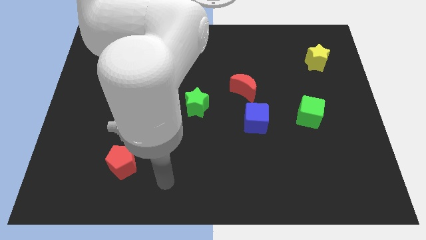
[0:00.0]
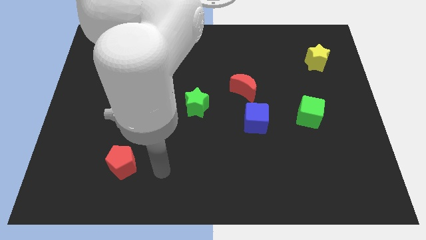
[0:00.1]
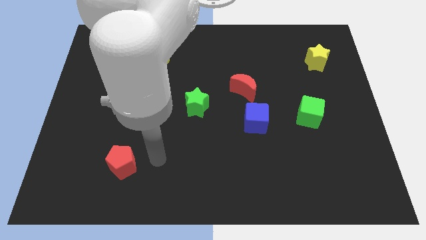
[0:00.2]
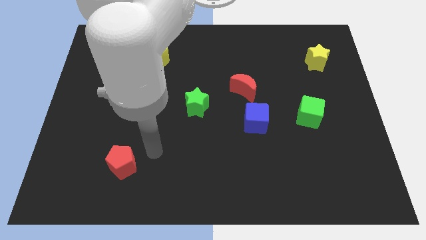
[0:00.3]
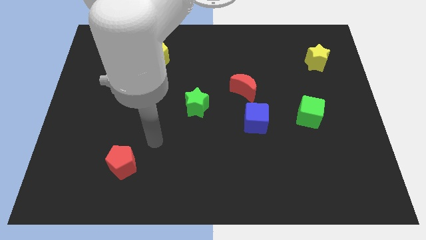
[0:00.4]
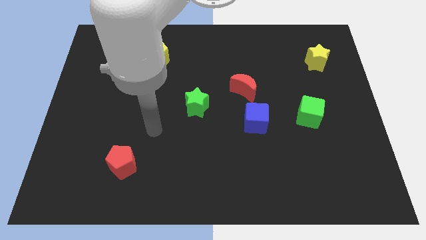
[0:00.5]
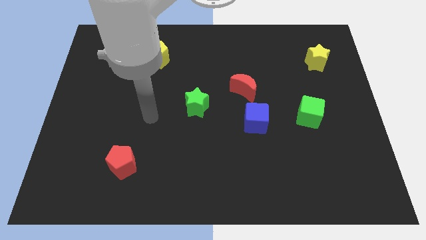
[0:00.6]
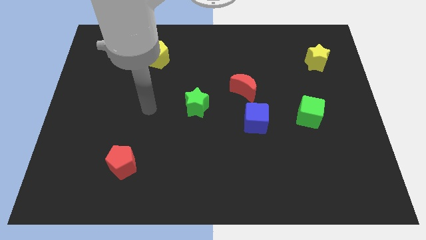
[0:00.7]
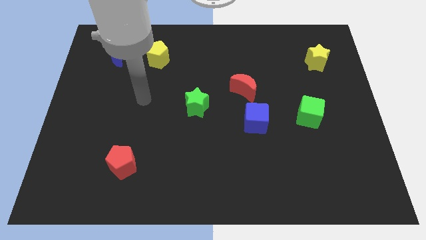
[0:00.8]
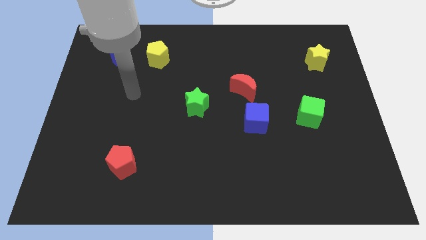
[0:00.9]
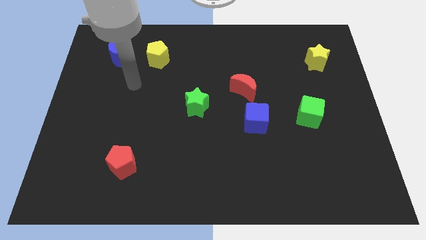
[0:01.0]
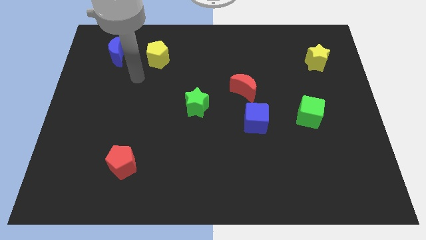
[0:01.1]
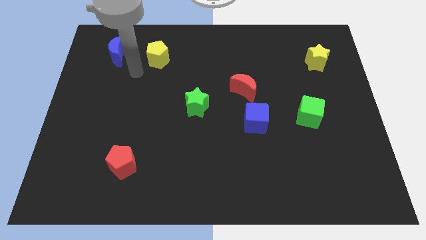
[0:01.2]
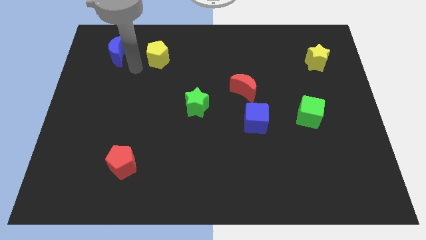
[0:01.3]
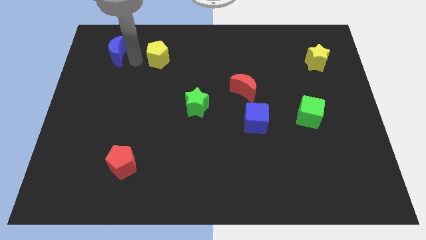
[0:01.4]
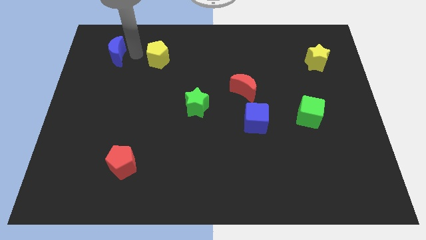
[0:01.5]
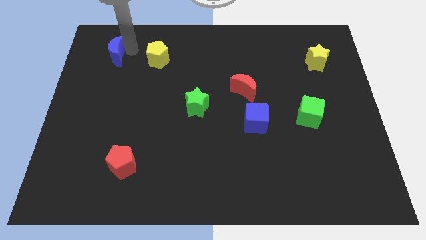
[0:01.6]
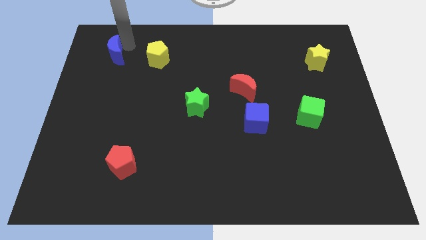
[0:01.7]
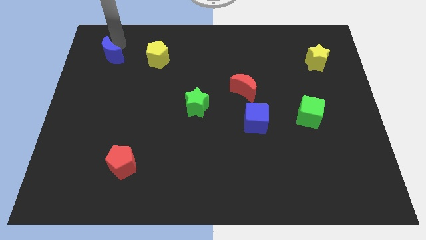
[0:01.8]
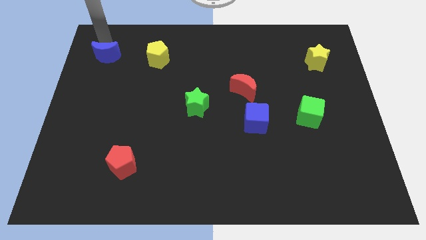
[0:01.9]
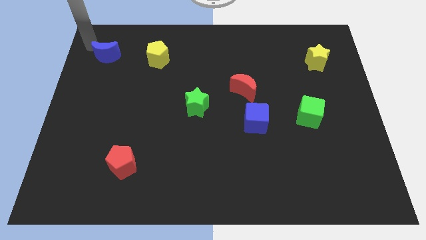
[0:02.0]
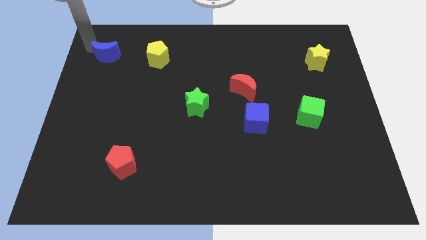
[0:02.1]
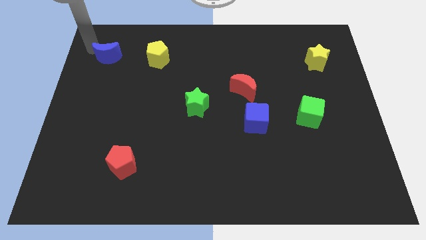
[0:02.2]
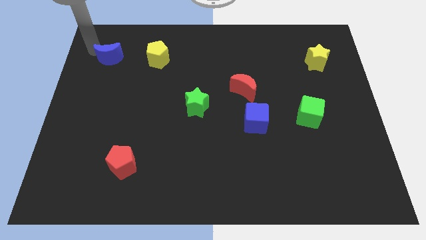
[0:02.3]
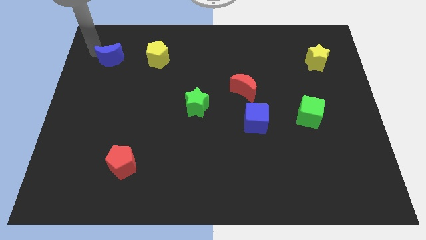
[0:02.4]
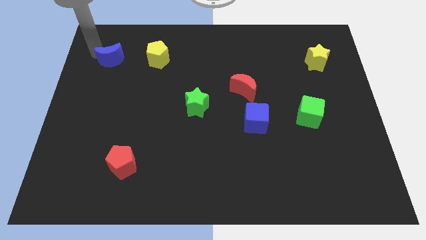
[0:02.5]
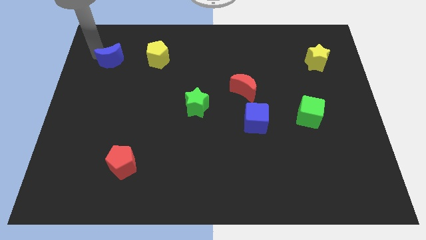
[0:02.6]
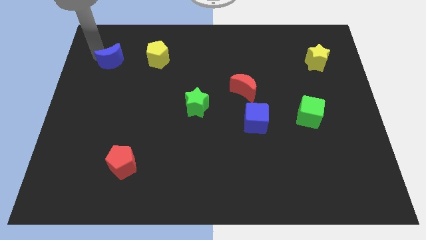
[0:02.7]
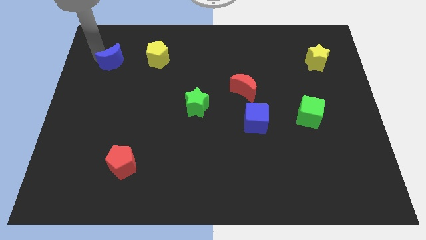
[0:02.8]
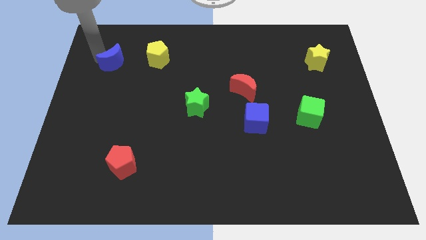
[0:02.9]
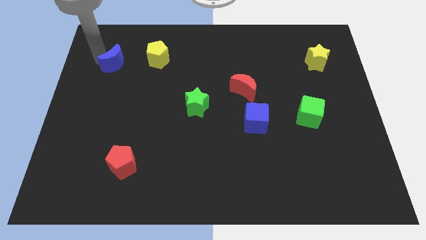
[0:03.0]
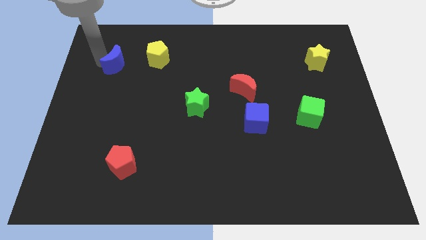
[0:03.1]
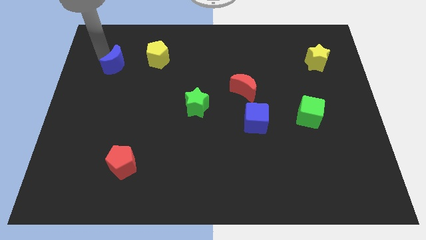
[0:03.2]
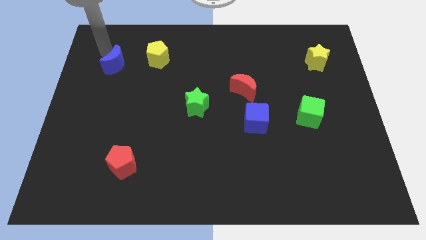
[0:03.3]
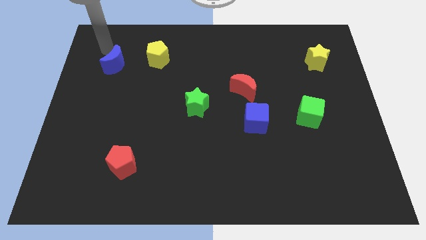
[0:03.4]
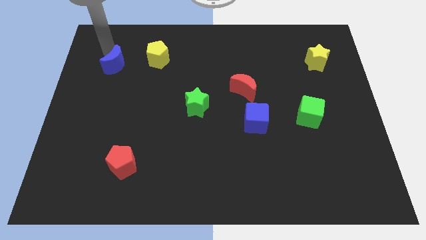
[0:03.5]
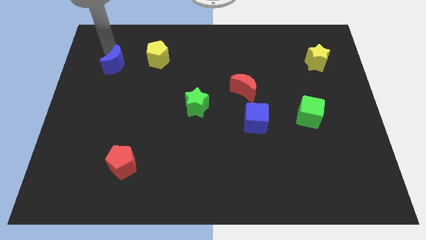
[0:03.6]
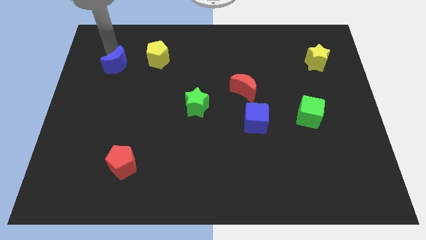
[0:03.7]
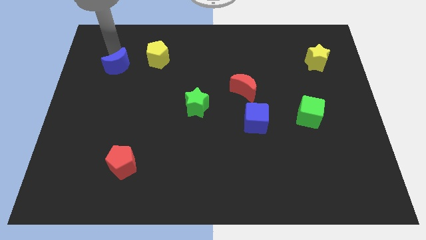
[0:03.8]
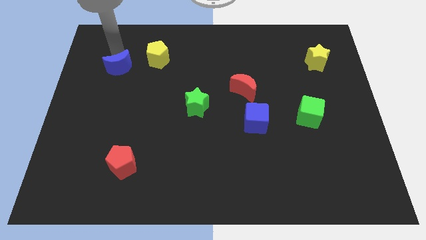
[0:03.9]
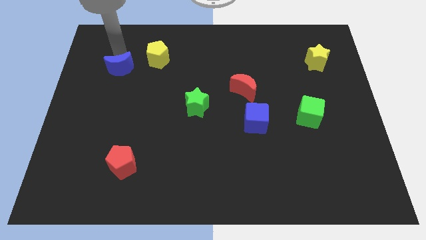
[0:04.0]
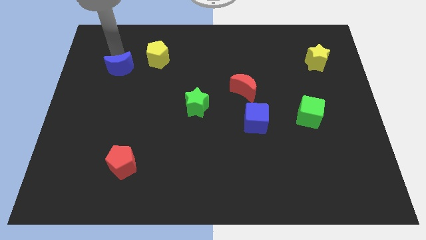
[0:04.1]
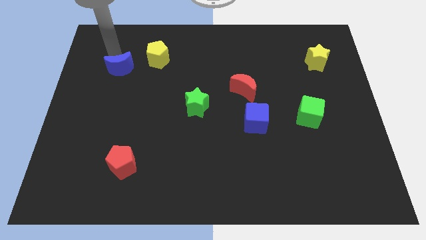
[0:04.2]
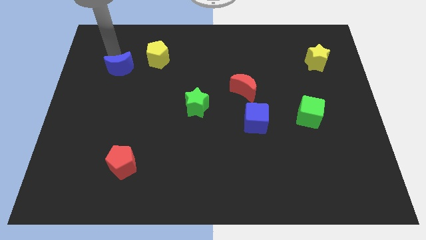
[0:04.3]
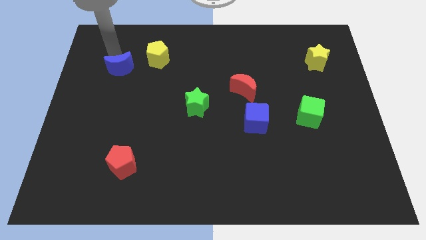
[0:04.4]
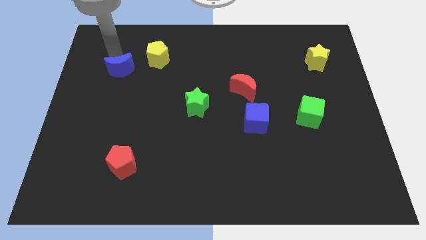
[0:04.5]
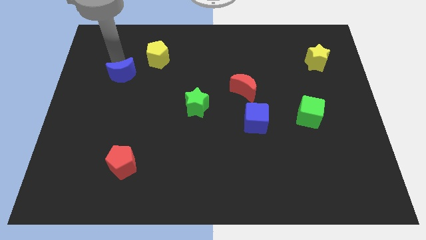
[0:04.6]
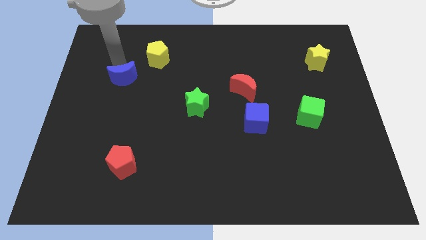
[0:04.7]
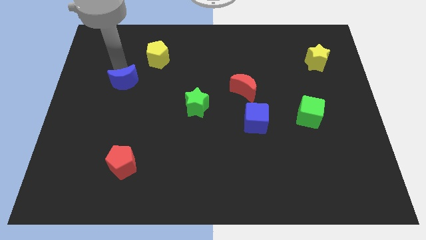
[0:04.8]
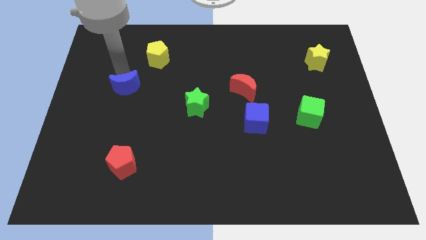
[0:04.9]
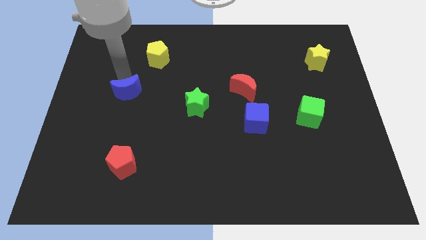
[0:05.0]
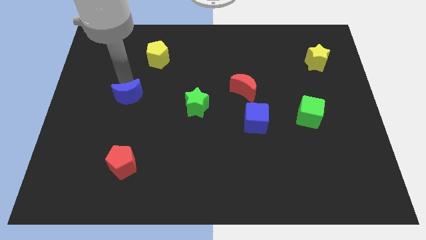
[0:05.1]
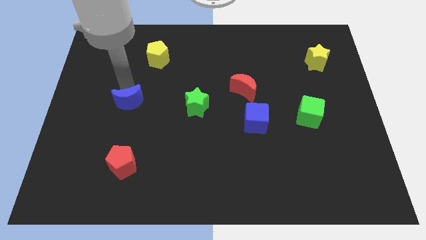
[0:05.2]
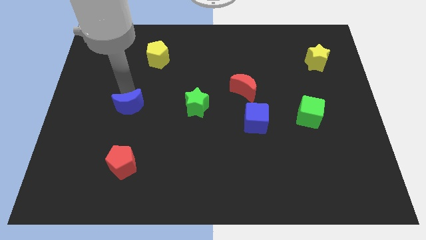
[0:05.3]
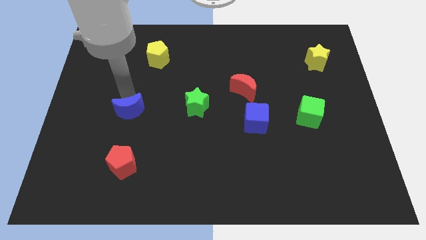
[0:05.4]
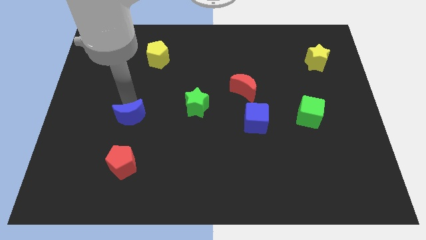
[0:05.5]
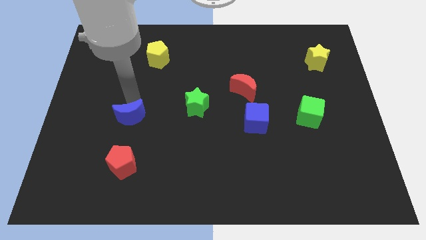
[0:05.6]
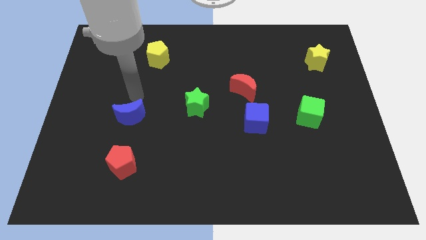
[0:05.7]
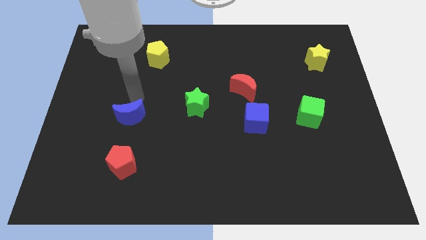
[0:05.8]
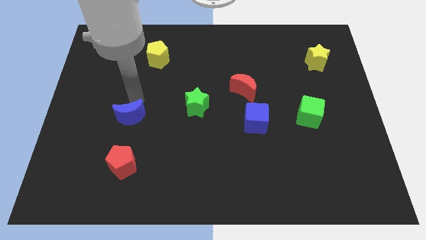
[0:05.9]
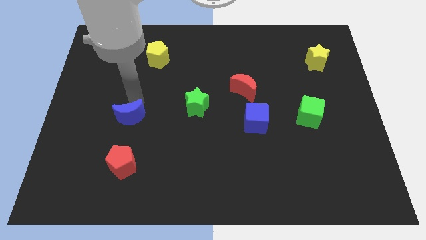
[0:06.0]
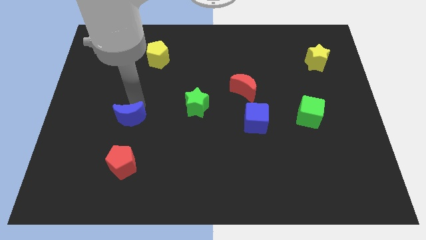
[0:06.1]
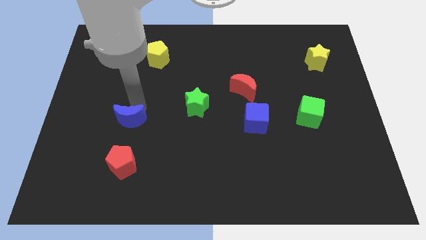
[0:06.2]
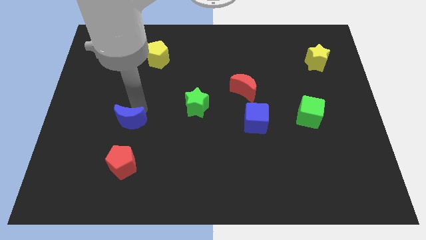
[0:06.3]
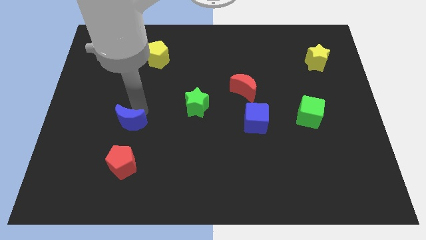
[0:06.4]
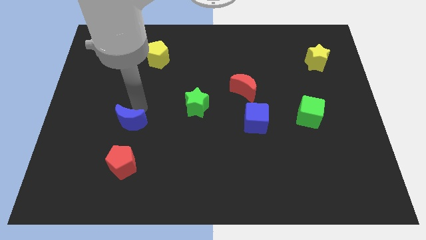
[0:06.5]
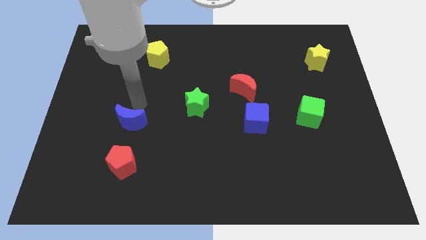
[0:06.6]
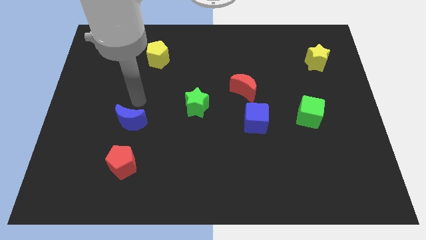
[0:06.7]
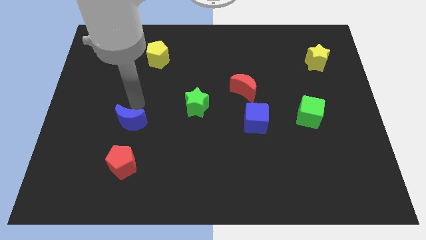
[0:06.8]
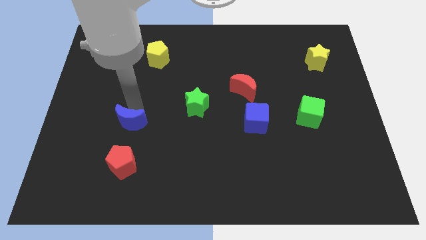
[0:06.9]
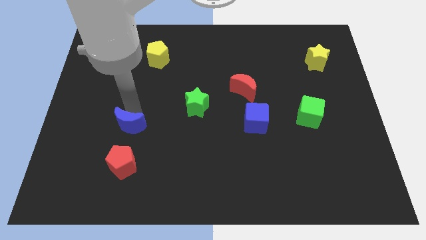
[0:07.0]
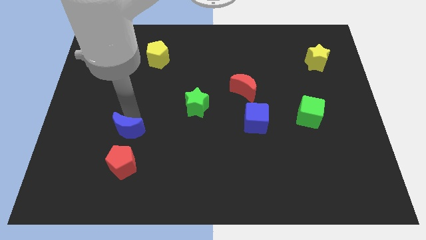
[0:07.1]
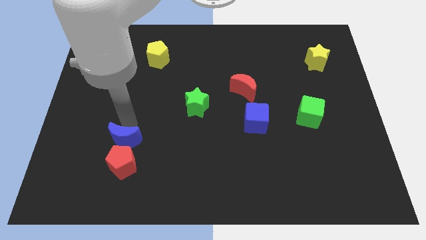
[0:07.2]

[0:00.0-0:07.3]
push the blue moon to the red pentagon
